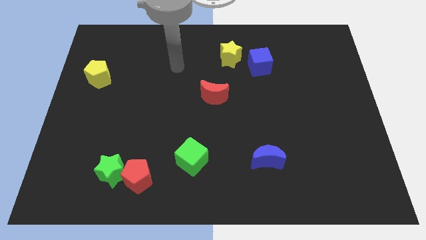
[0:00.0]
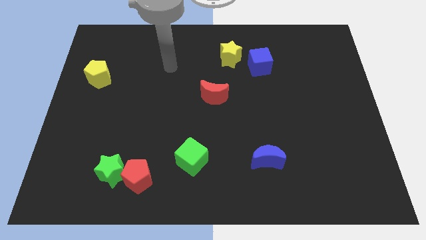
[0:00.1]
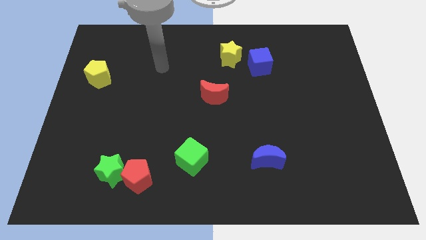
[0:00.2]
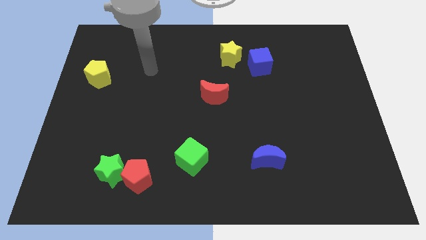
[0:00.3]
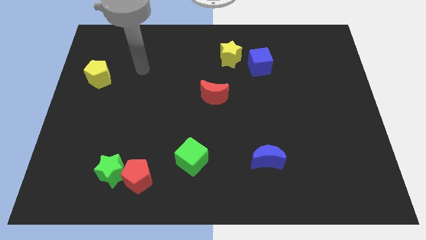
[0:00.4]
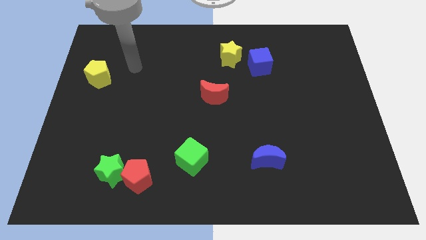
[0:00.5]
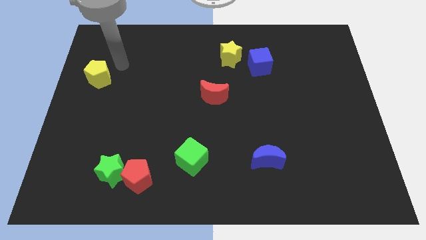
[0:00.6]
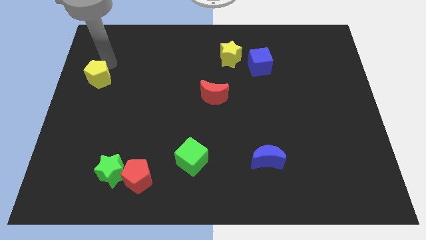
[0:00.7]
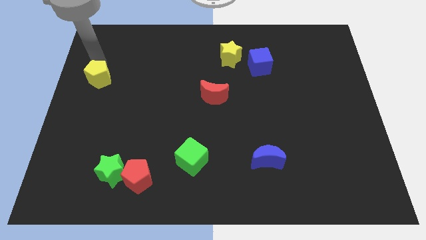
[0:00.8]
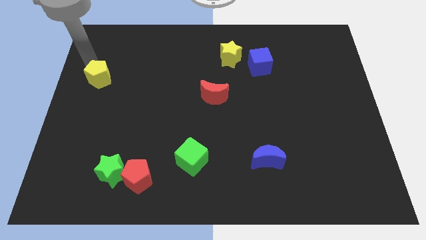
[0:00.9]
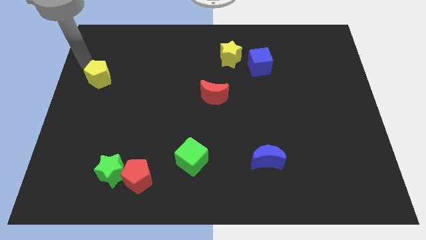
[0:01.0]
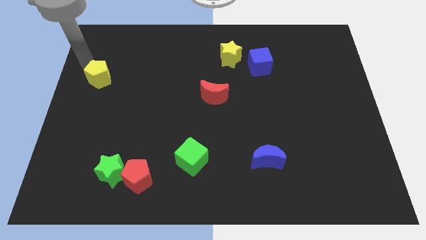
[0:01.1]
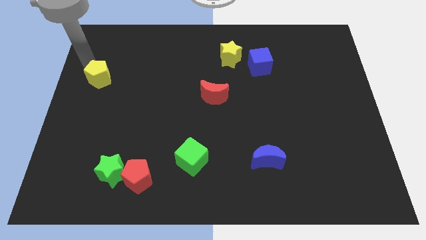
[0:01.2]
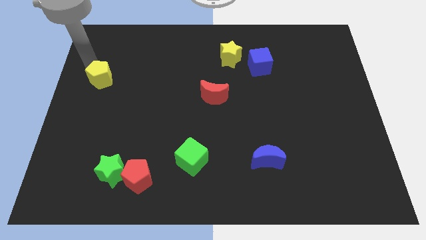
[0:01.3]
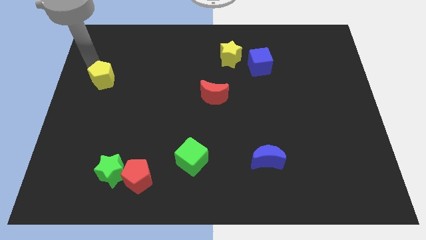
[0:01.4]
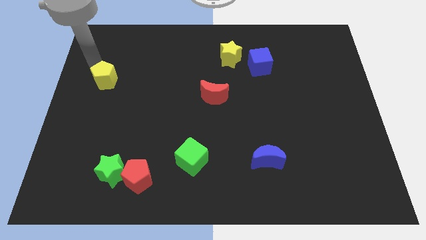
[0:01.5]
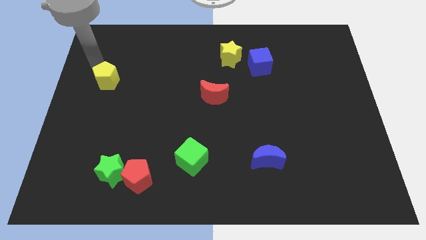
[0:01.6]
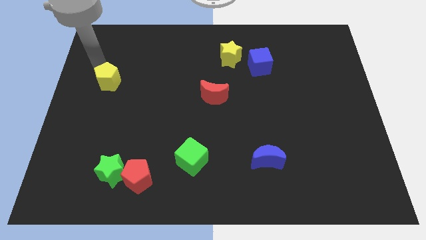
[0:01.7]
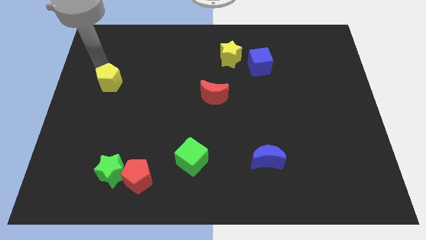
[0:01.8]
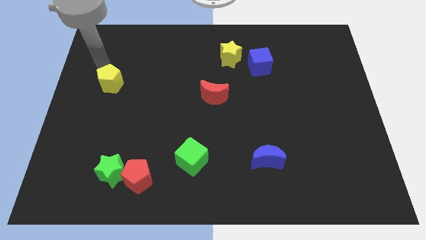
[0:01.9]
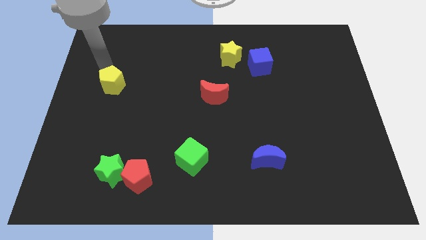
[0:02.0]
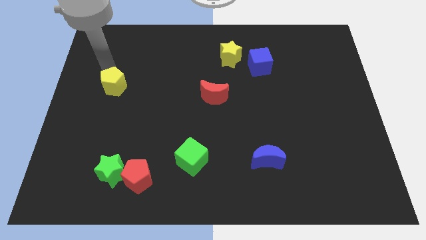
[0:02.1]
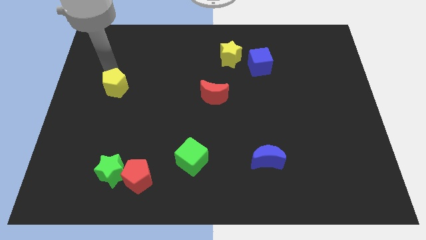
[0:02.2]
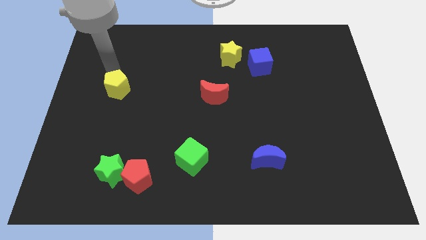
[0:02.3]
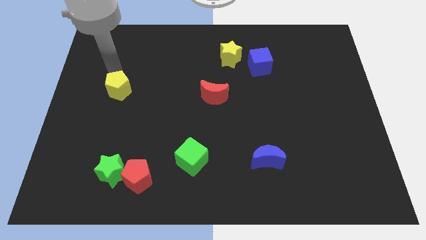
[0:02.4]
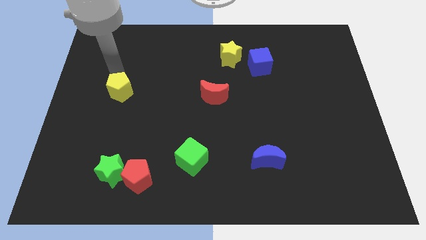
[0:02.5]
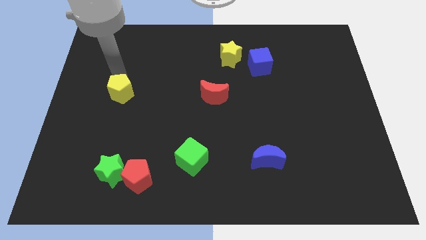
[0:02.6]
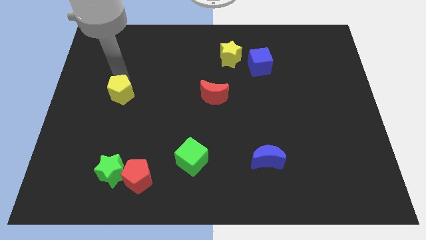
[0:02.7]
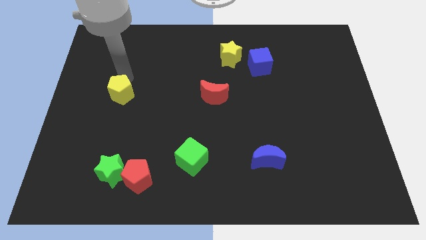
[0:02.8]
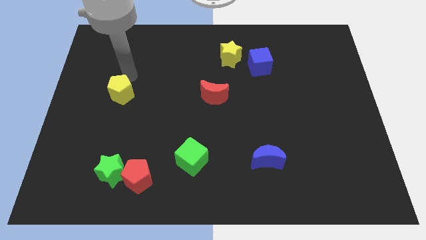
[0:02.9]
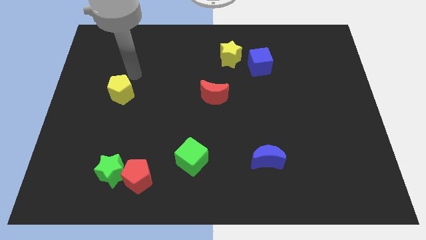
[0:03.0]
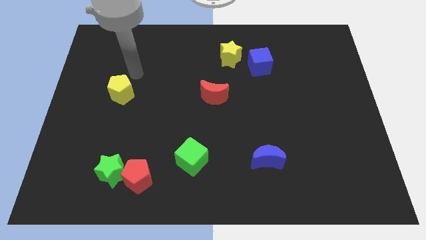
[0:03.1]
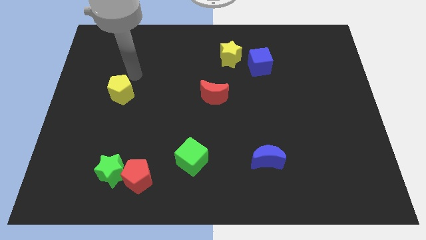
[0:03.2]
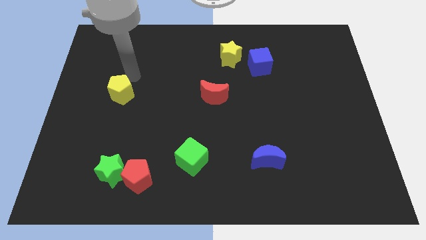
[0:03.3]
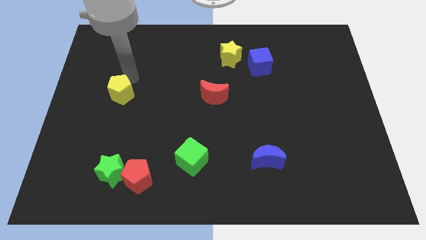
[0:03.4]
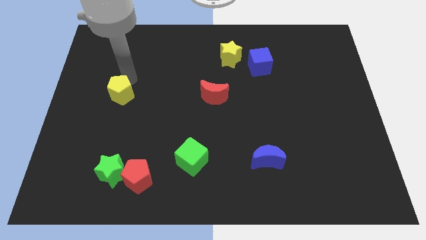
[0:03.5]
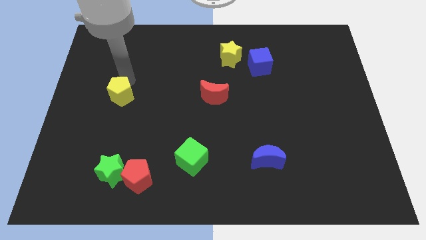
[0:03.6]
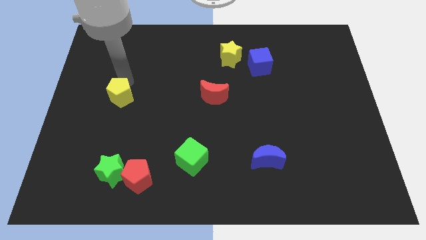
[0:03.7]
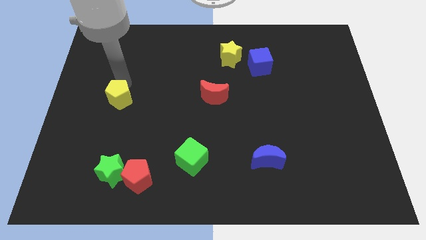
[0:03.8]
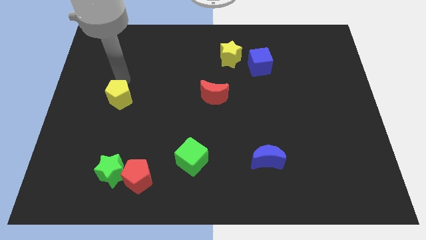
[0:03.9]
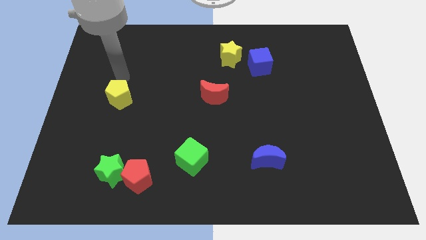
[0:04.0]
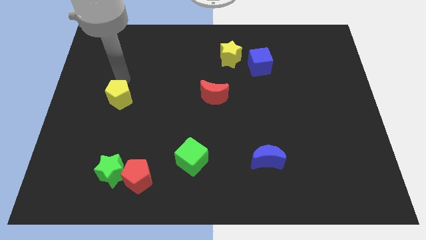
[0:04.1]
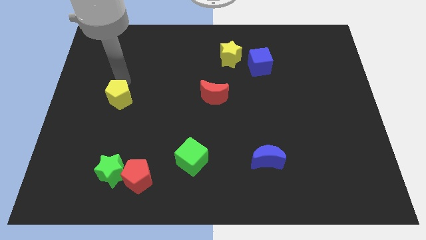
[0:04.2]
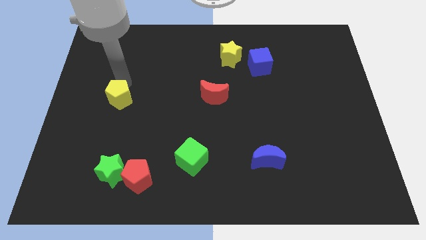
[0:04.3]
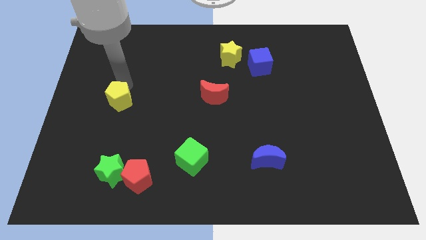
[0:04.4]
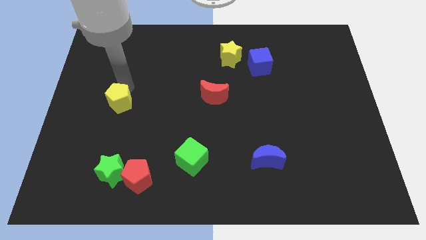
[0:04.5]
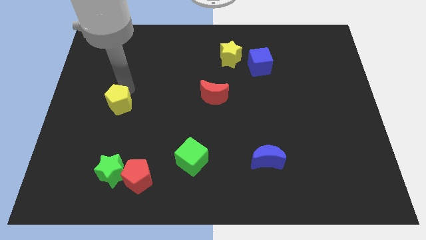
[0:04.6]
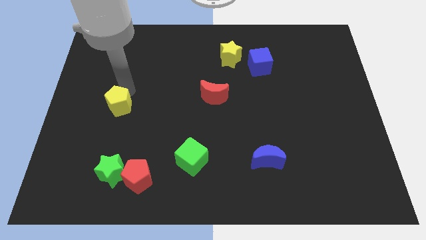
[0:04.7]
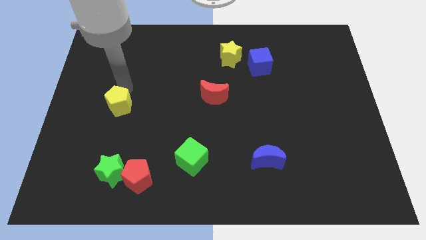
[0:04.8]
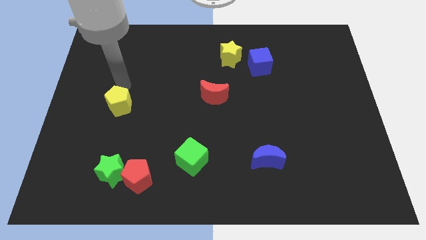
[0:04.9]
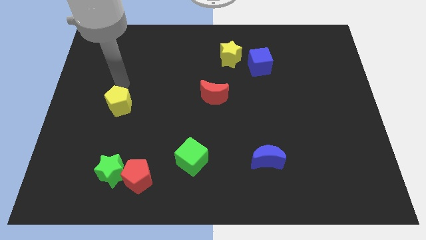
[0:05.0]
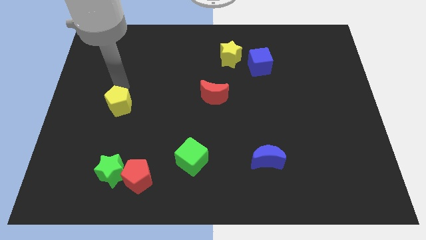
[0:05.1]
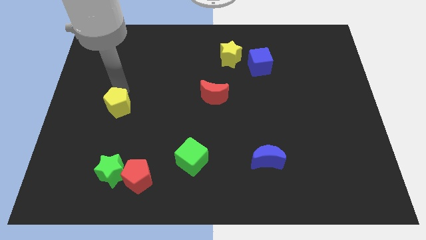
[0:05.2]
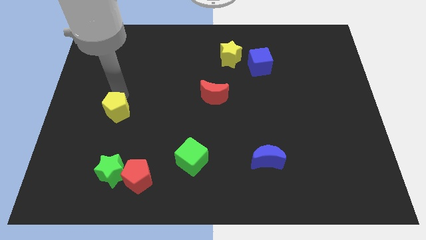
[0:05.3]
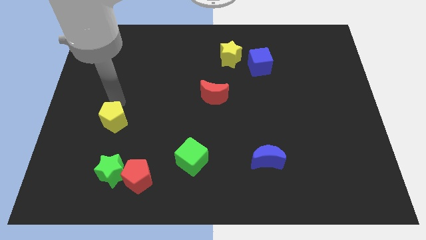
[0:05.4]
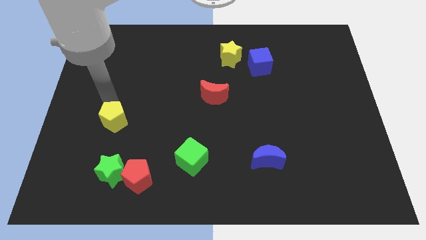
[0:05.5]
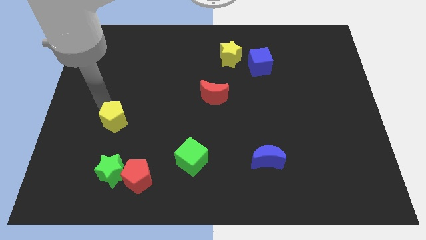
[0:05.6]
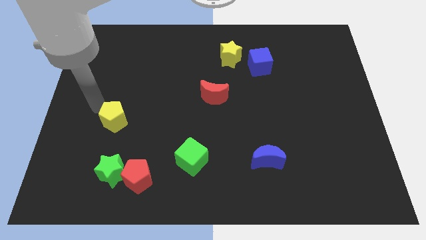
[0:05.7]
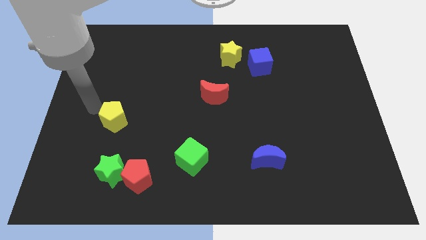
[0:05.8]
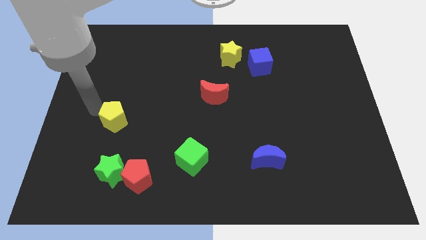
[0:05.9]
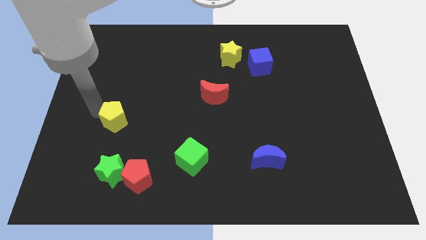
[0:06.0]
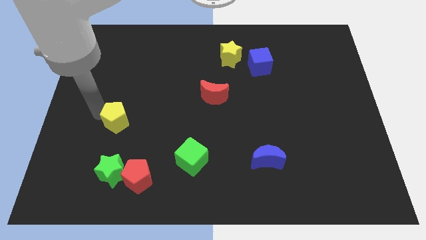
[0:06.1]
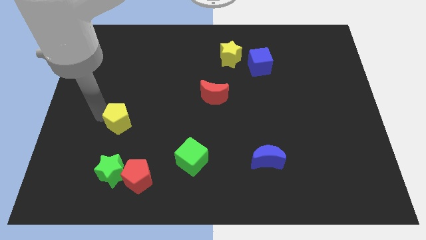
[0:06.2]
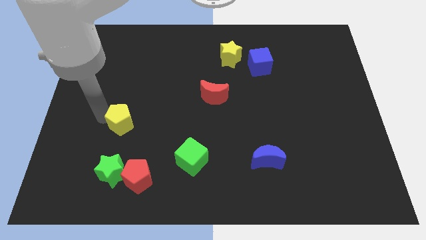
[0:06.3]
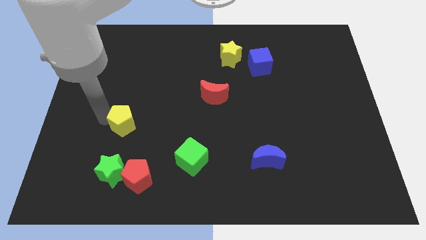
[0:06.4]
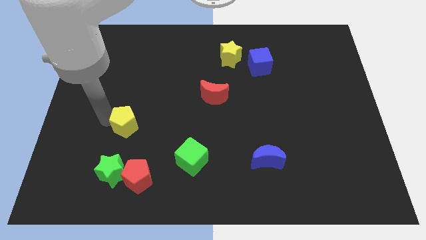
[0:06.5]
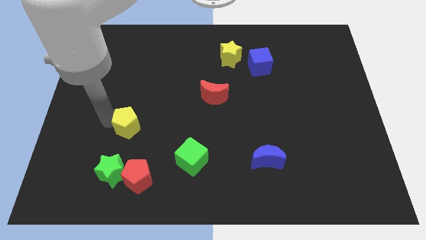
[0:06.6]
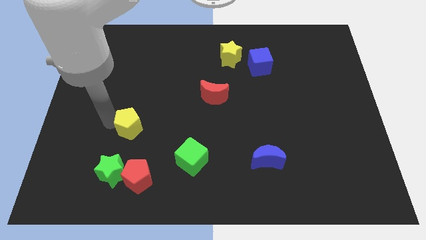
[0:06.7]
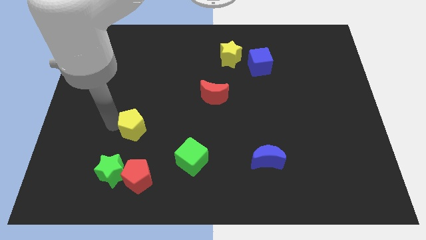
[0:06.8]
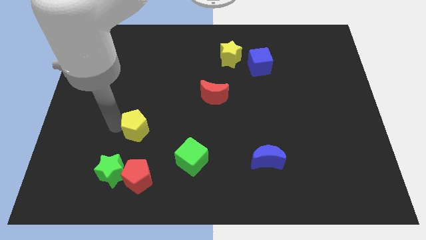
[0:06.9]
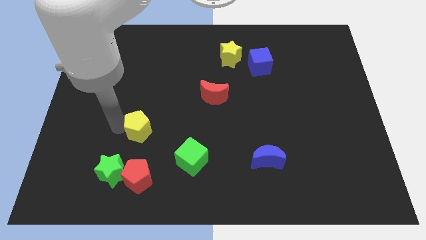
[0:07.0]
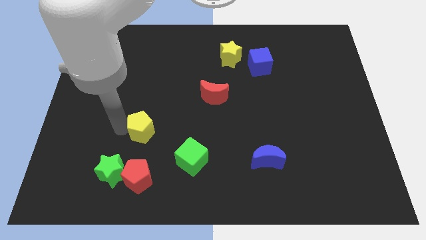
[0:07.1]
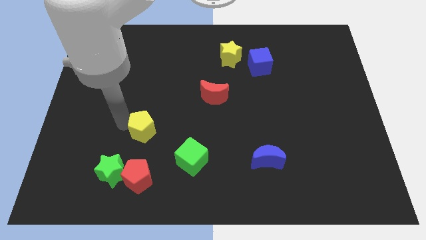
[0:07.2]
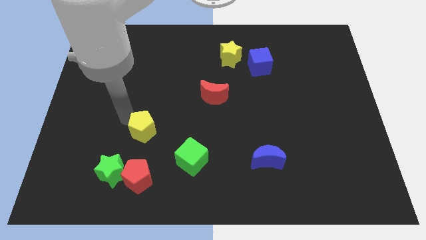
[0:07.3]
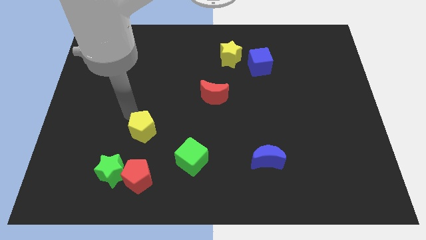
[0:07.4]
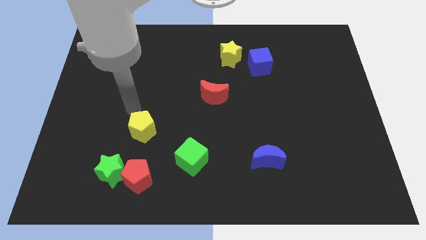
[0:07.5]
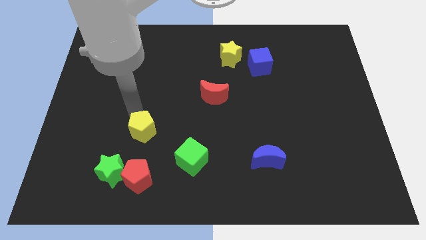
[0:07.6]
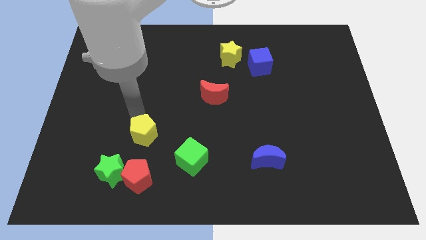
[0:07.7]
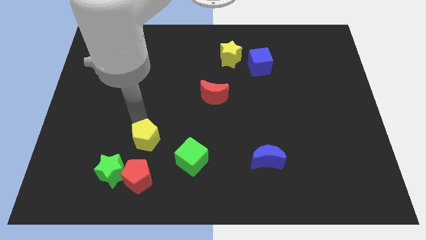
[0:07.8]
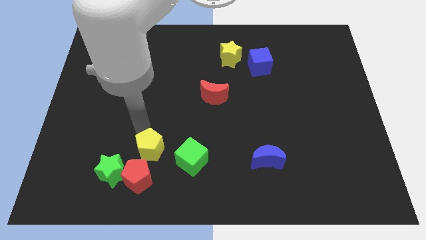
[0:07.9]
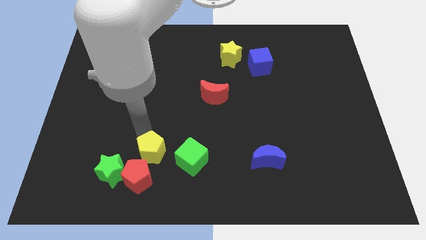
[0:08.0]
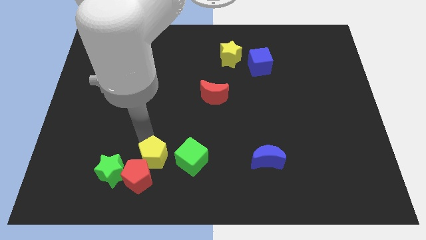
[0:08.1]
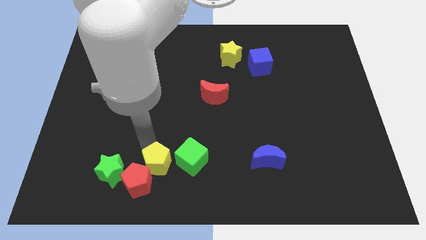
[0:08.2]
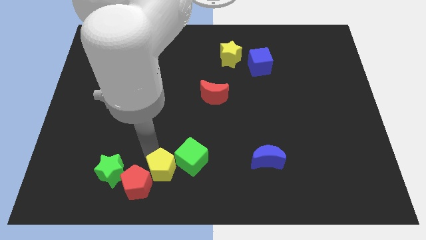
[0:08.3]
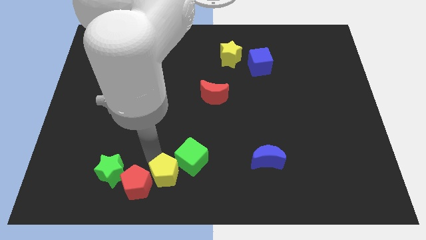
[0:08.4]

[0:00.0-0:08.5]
put the yellow pentagon to the bottom
